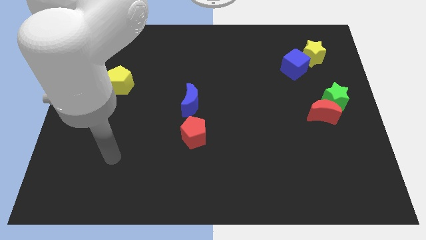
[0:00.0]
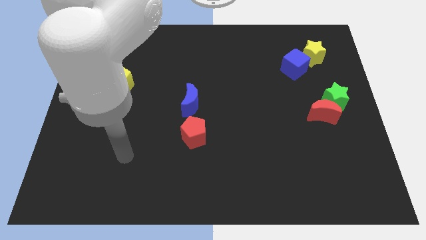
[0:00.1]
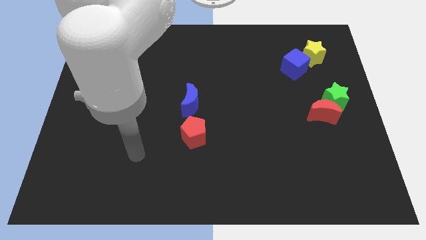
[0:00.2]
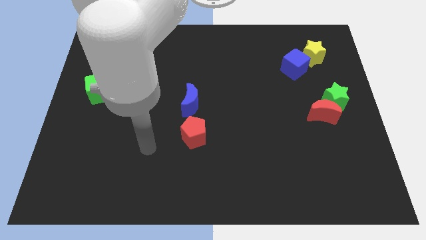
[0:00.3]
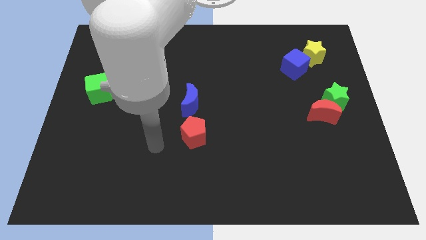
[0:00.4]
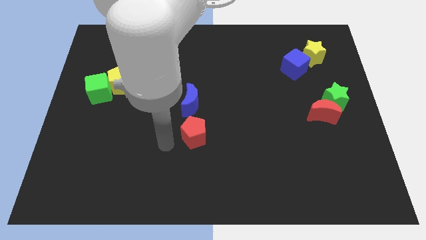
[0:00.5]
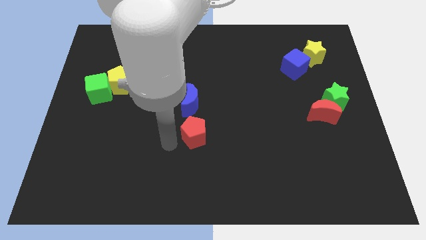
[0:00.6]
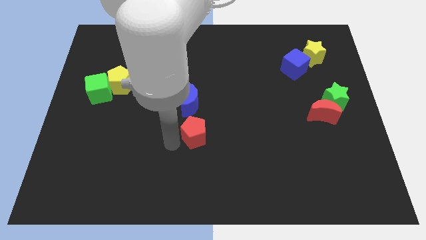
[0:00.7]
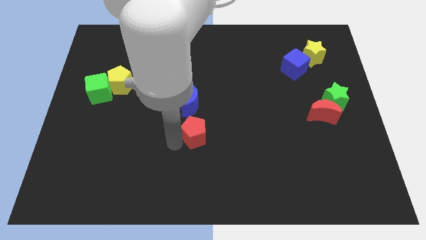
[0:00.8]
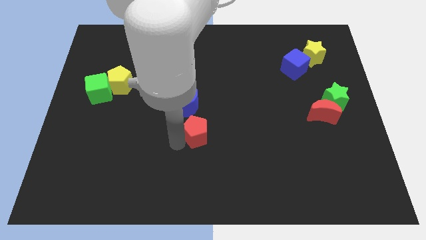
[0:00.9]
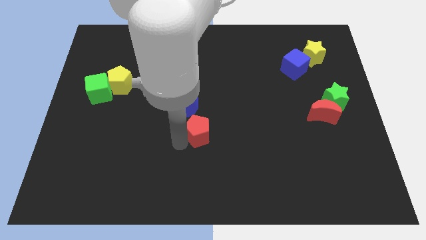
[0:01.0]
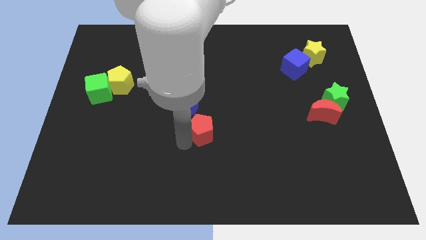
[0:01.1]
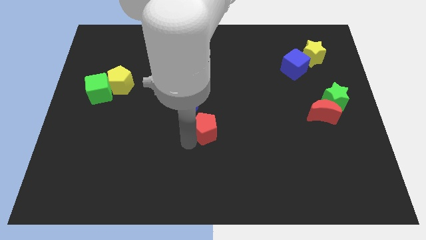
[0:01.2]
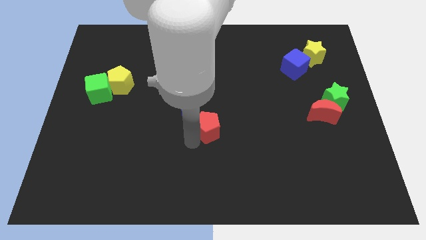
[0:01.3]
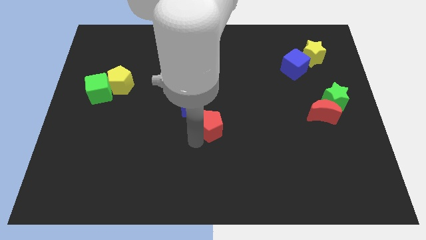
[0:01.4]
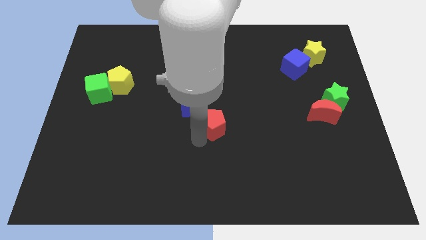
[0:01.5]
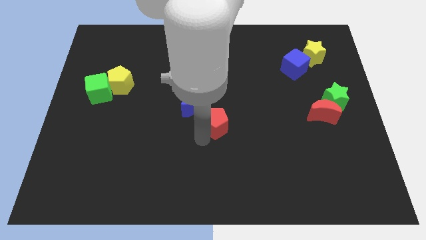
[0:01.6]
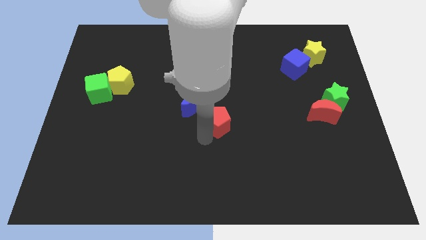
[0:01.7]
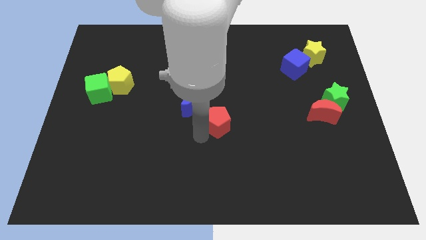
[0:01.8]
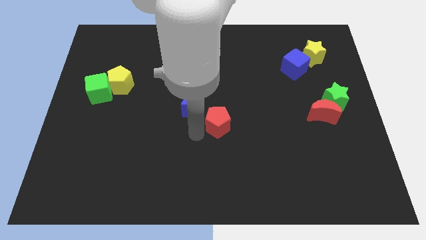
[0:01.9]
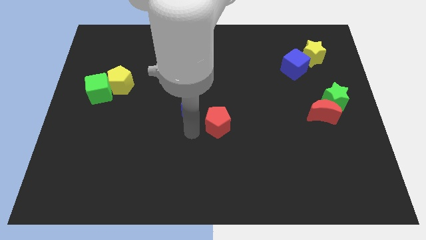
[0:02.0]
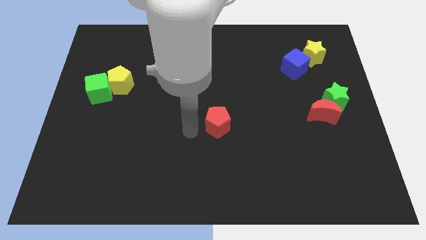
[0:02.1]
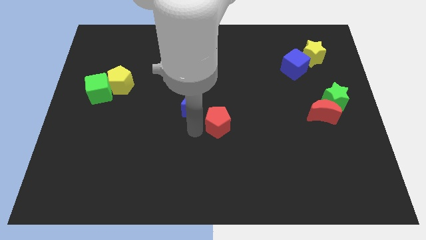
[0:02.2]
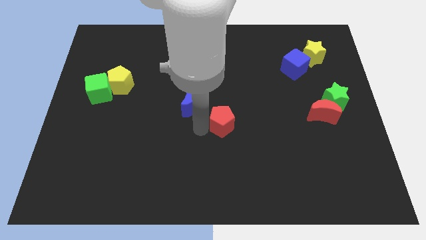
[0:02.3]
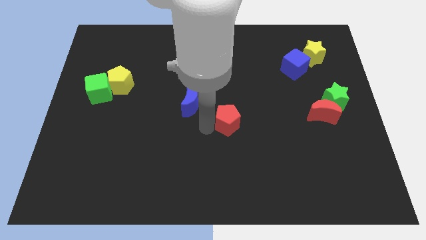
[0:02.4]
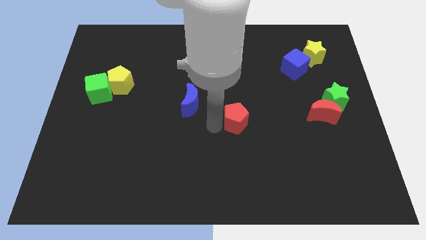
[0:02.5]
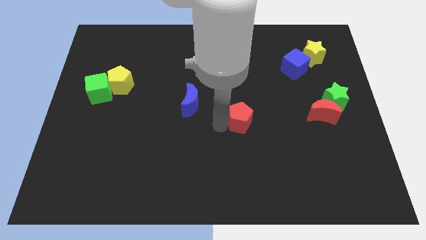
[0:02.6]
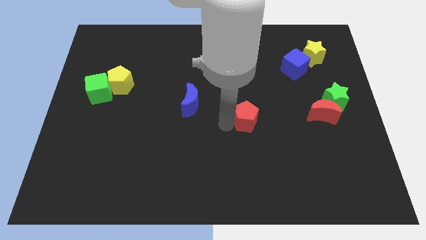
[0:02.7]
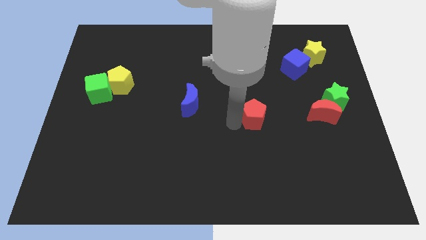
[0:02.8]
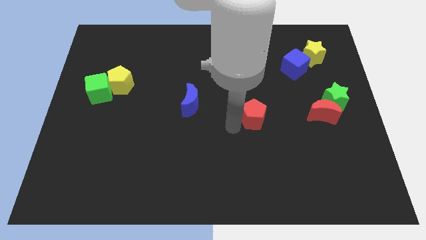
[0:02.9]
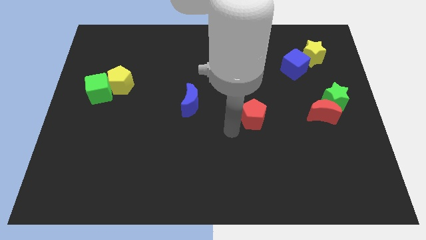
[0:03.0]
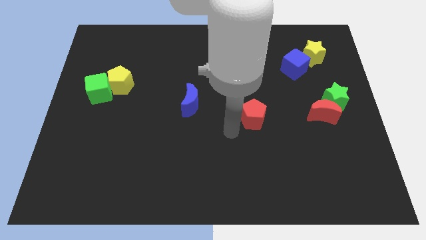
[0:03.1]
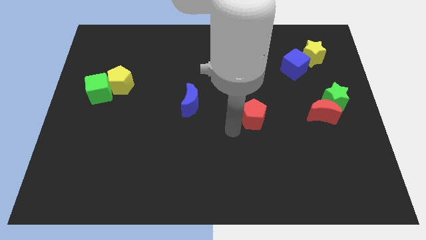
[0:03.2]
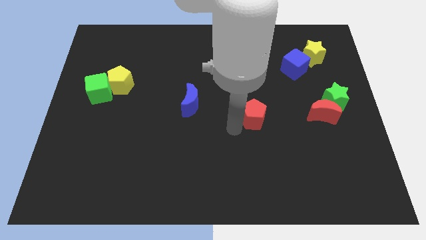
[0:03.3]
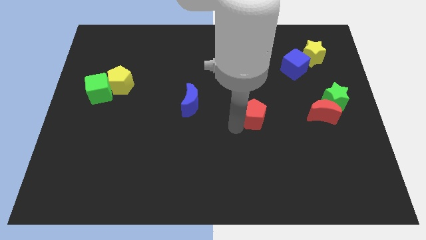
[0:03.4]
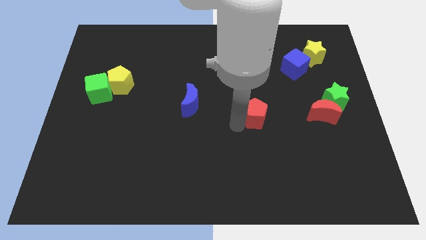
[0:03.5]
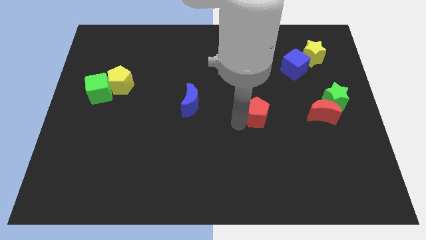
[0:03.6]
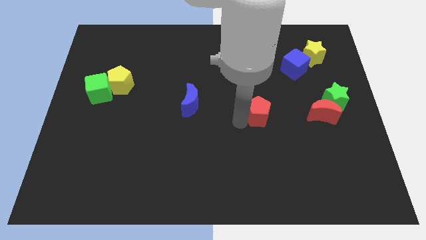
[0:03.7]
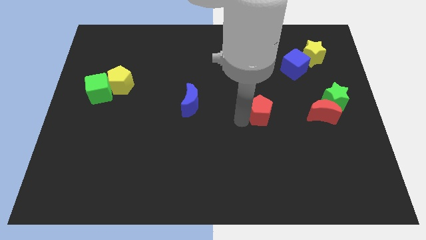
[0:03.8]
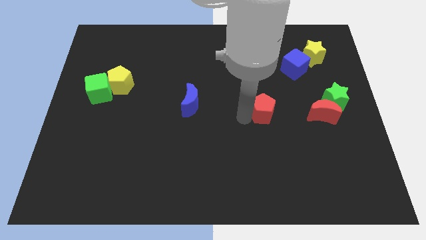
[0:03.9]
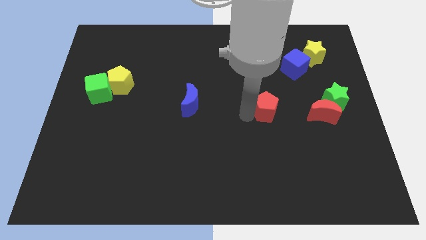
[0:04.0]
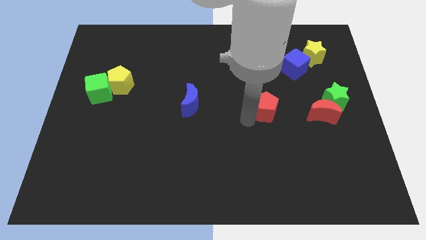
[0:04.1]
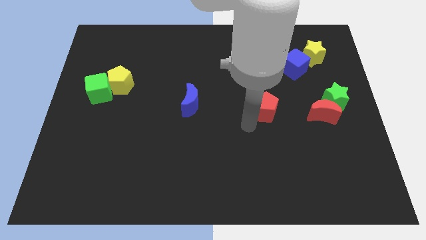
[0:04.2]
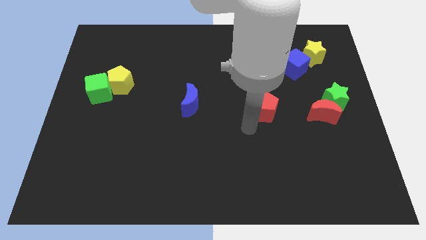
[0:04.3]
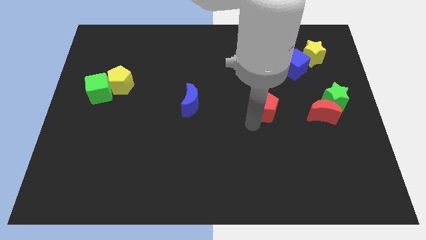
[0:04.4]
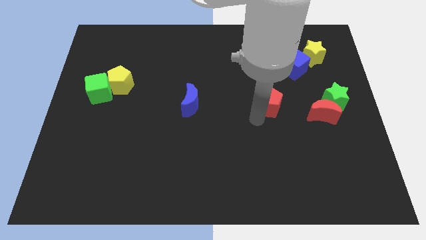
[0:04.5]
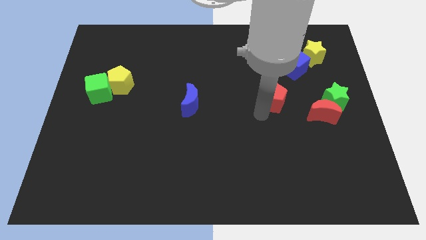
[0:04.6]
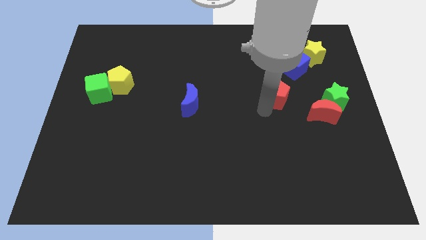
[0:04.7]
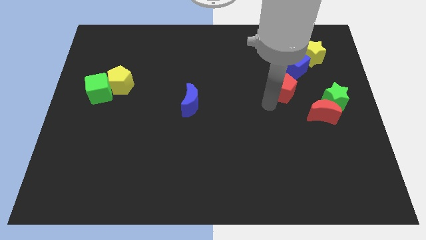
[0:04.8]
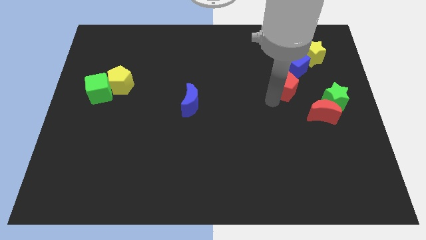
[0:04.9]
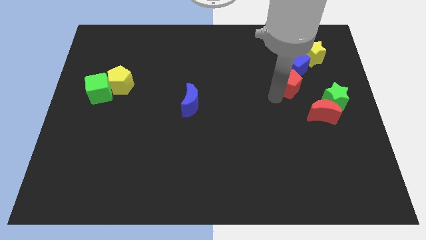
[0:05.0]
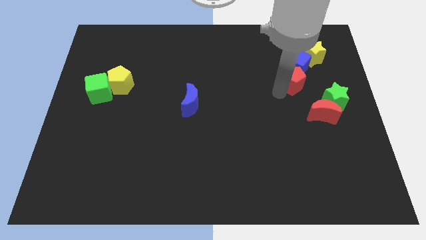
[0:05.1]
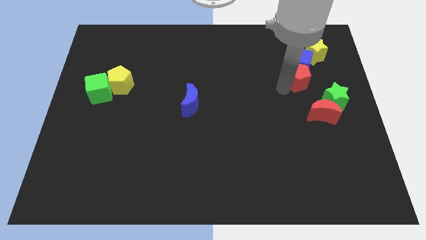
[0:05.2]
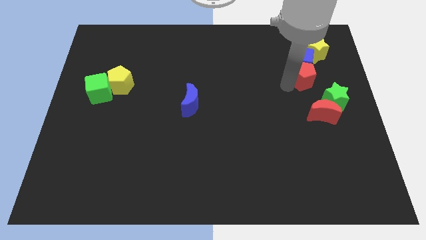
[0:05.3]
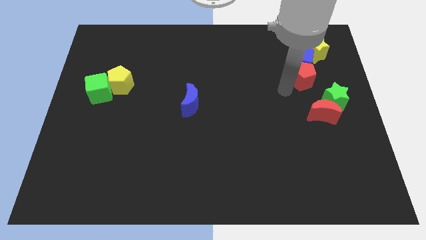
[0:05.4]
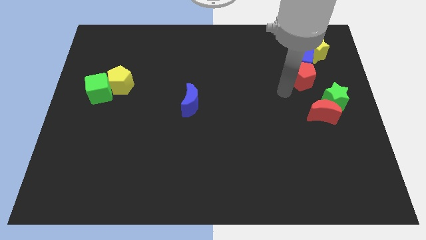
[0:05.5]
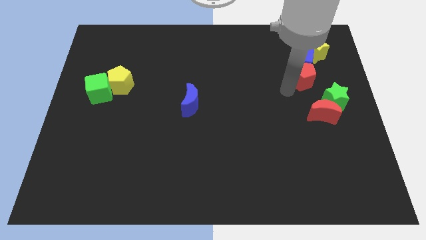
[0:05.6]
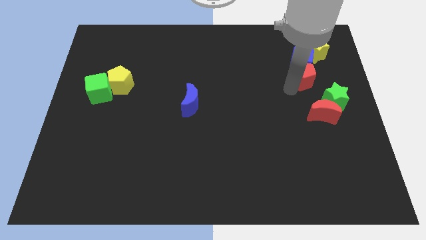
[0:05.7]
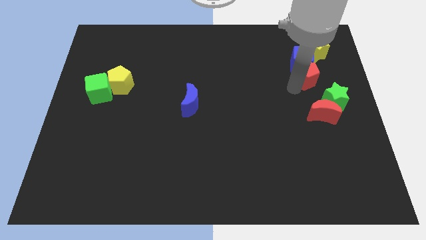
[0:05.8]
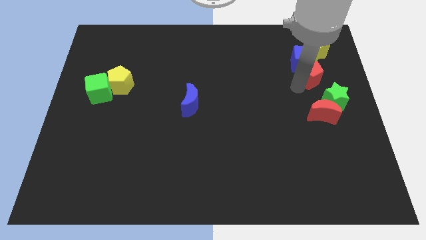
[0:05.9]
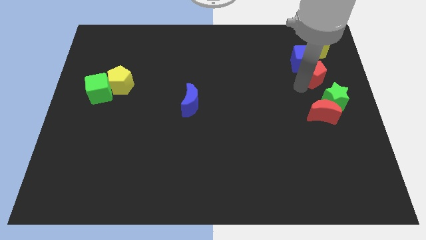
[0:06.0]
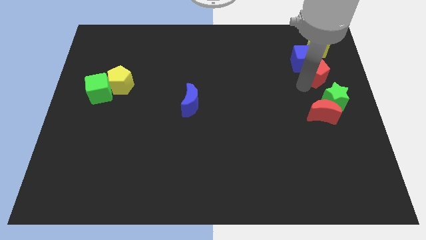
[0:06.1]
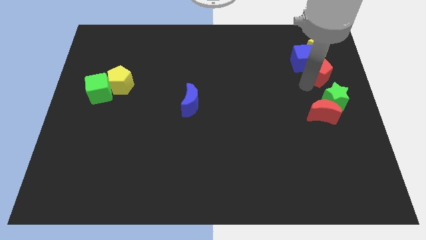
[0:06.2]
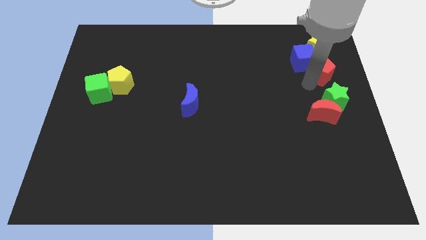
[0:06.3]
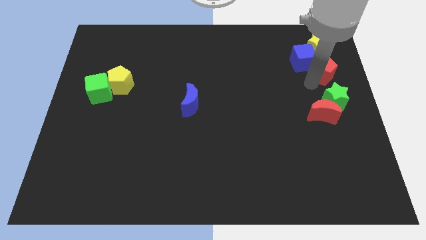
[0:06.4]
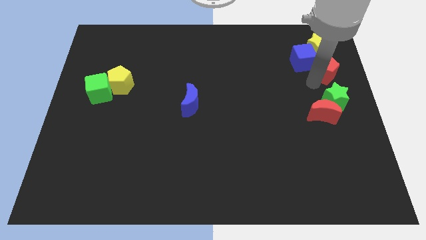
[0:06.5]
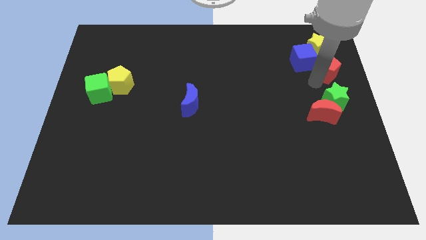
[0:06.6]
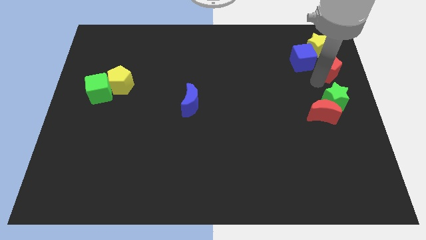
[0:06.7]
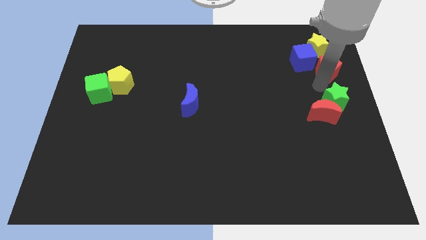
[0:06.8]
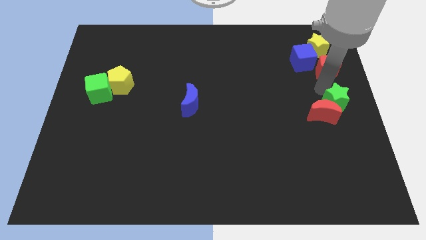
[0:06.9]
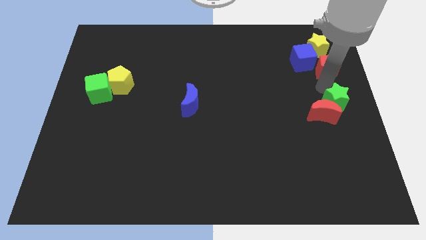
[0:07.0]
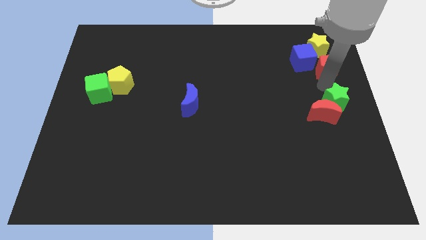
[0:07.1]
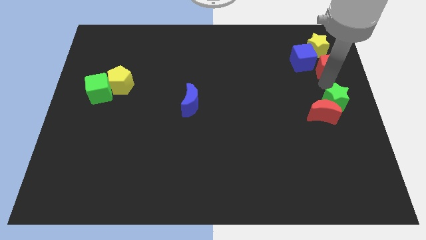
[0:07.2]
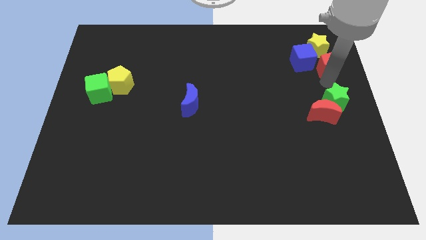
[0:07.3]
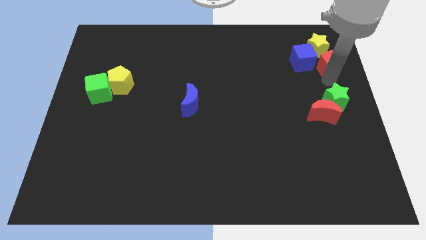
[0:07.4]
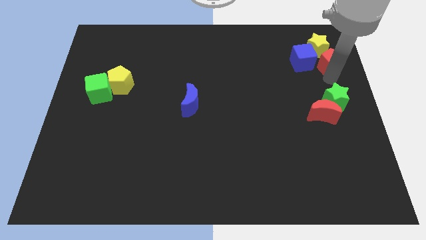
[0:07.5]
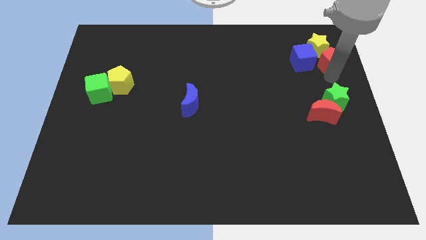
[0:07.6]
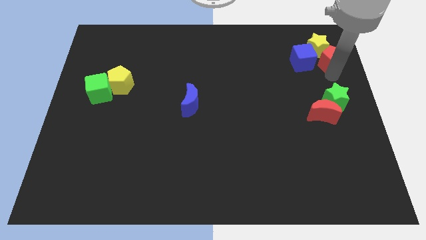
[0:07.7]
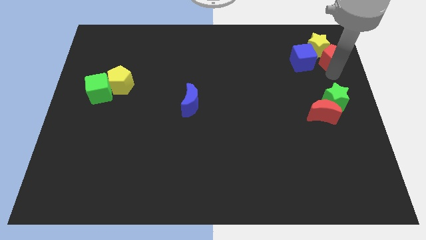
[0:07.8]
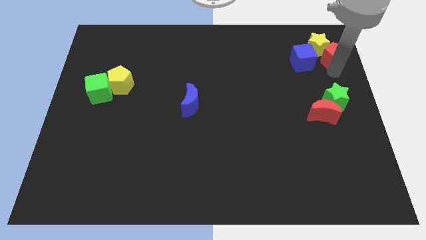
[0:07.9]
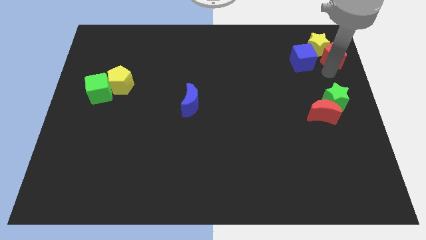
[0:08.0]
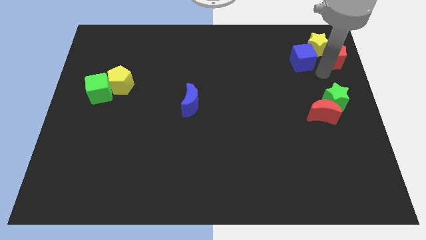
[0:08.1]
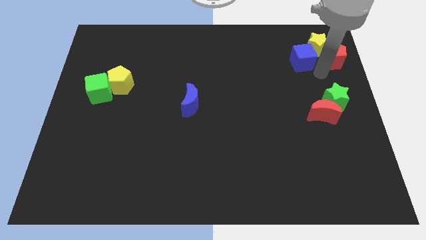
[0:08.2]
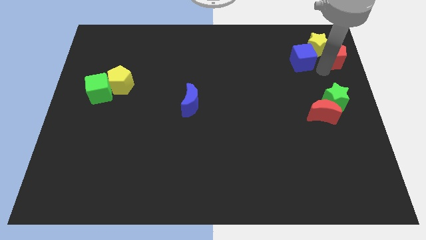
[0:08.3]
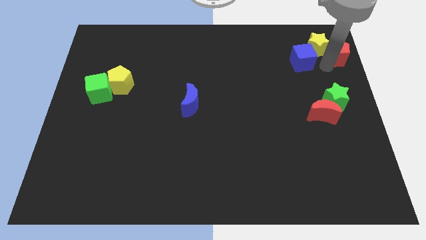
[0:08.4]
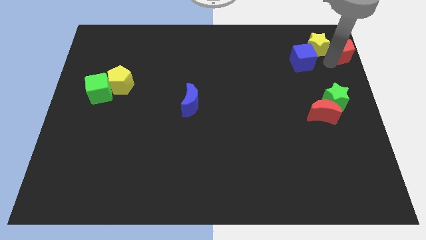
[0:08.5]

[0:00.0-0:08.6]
put the red pentagon to the top right corner
